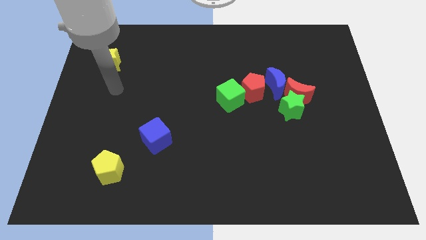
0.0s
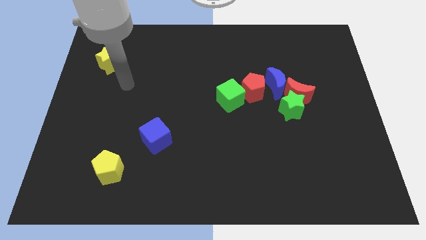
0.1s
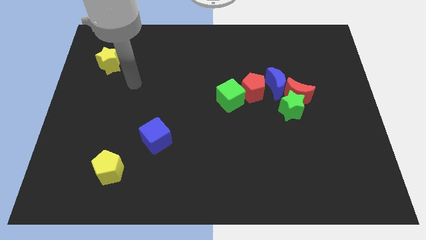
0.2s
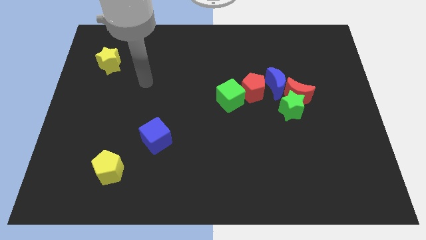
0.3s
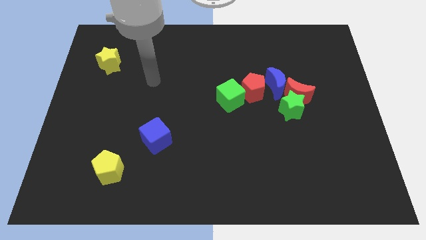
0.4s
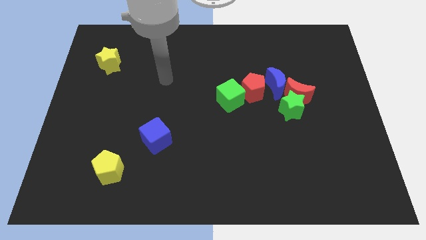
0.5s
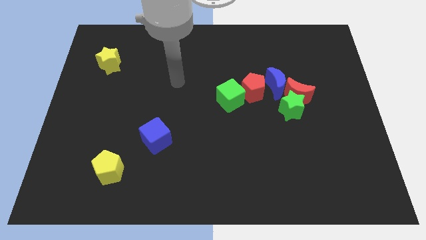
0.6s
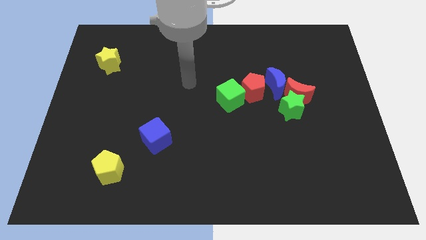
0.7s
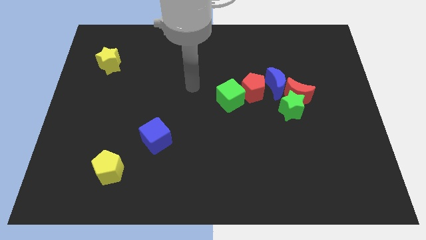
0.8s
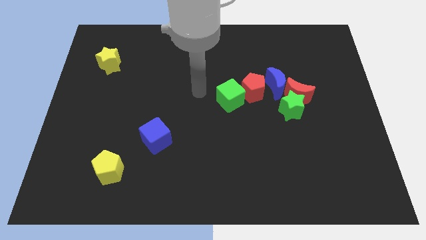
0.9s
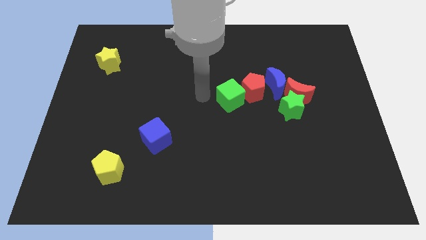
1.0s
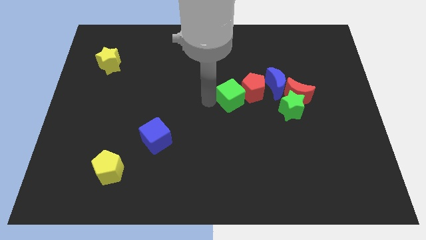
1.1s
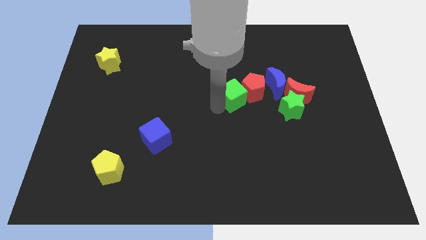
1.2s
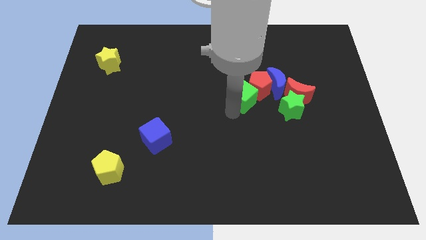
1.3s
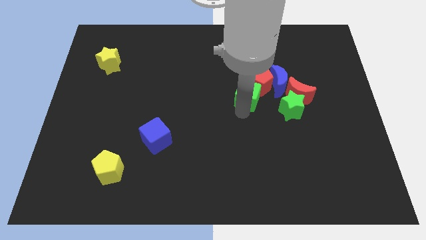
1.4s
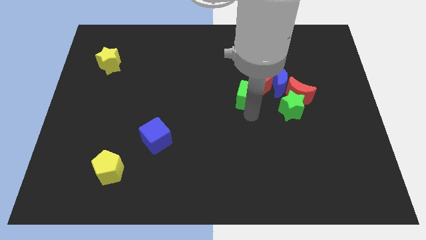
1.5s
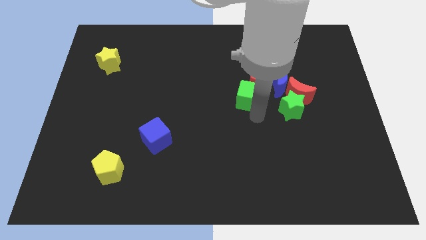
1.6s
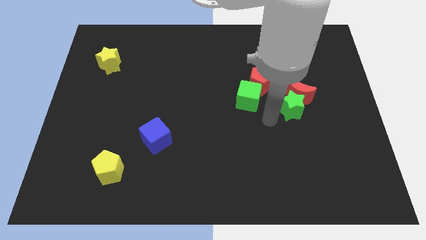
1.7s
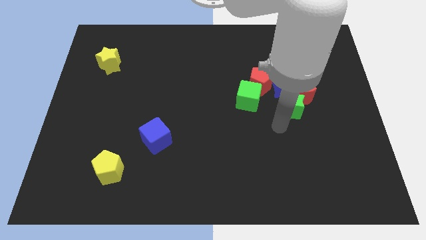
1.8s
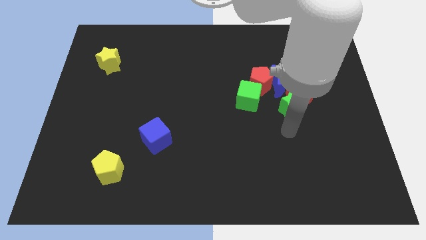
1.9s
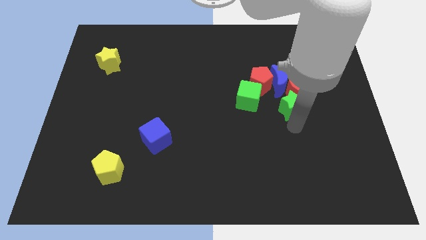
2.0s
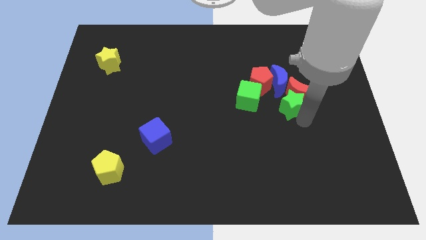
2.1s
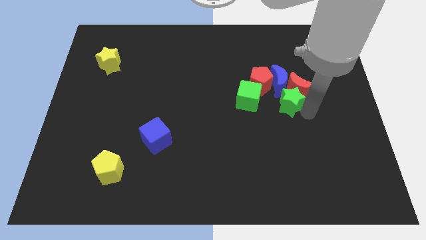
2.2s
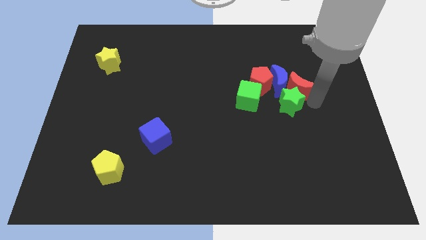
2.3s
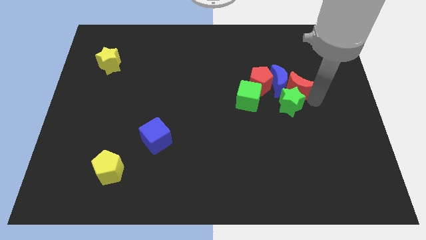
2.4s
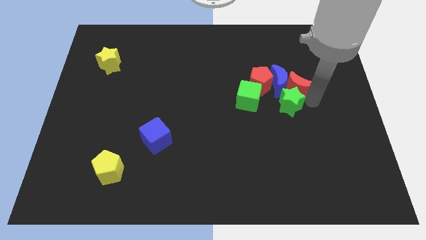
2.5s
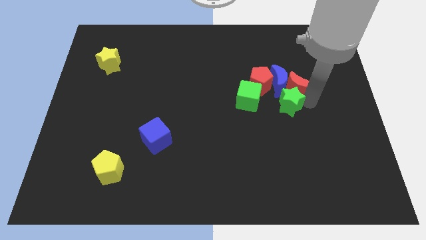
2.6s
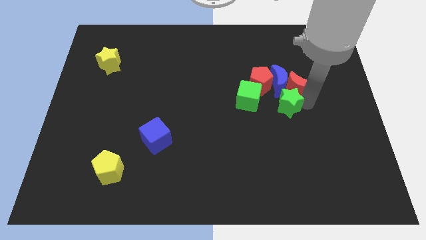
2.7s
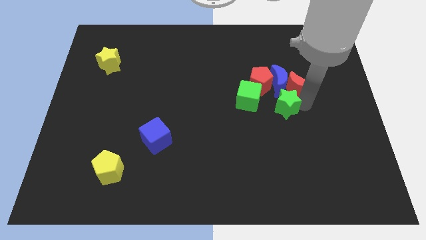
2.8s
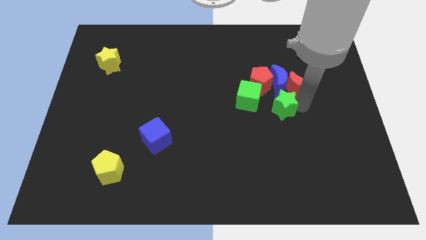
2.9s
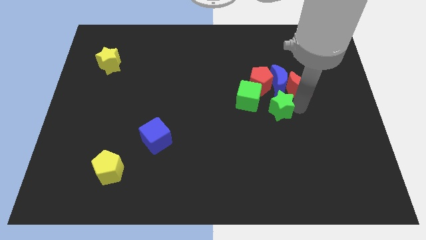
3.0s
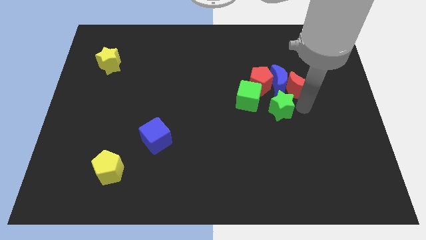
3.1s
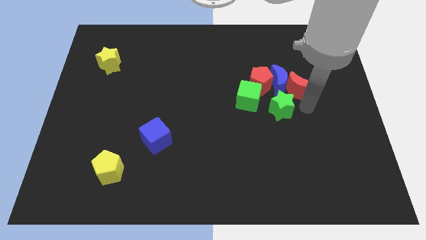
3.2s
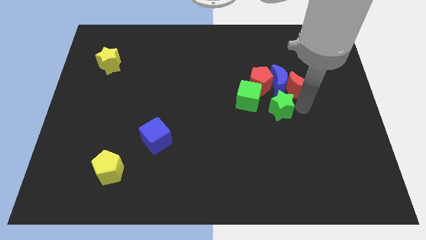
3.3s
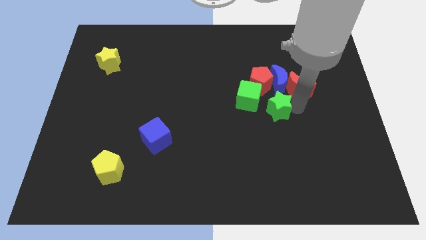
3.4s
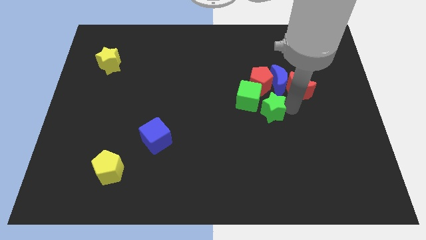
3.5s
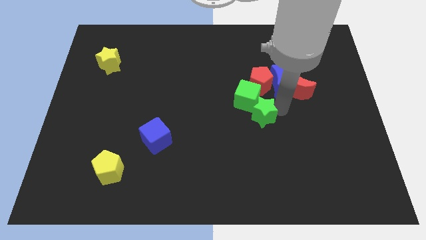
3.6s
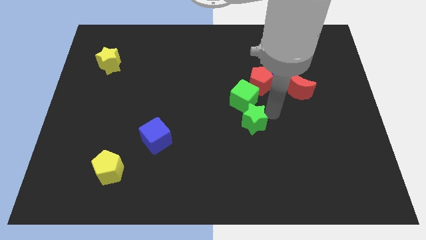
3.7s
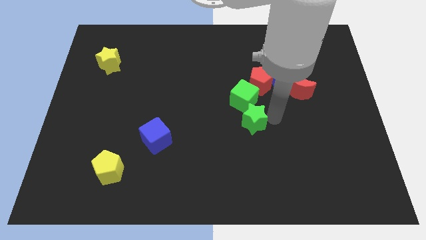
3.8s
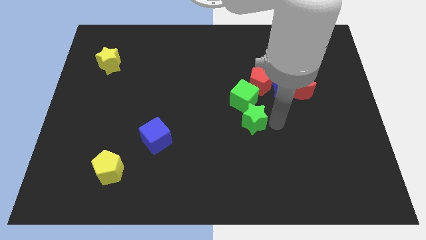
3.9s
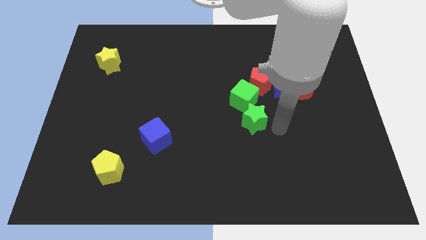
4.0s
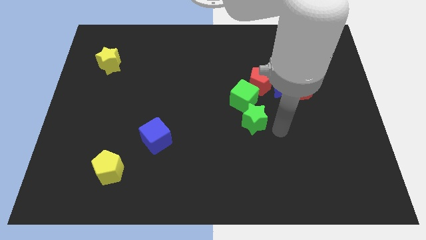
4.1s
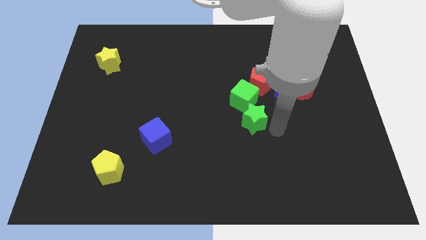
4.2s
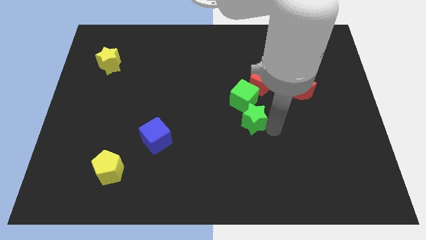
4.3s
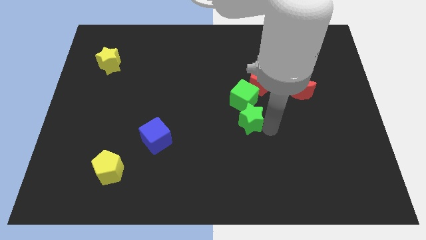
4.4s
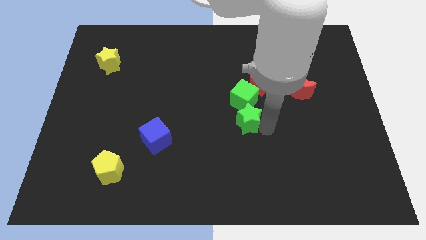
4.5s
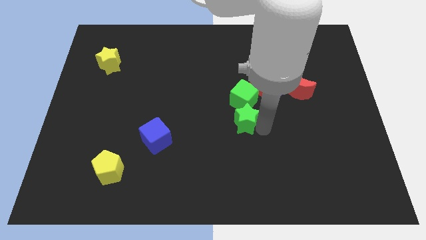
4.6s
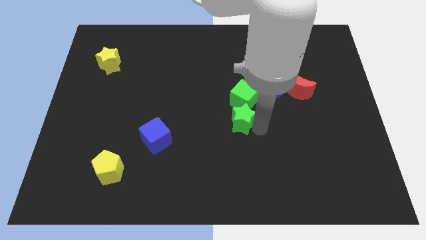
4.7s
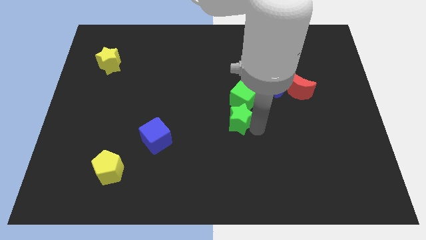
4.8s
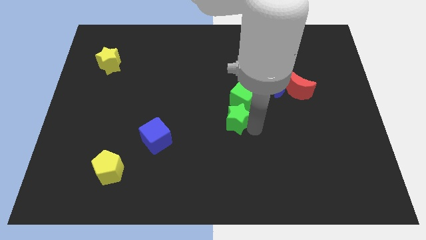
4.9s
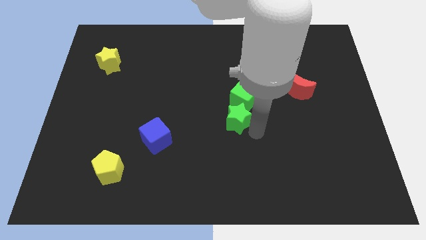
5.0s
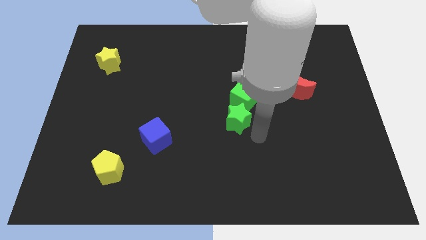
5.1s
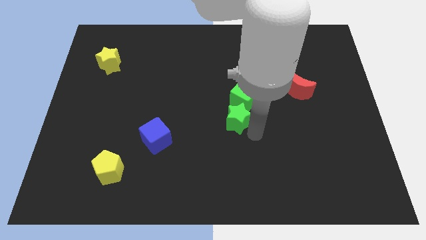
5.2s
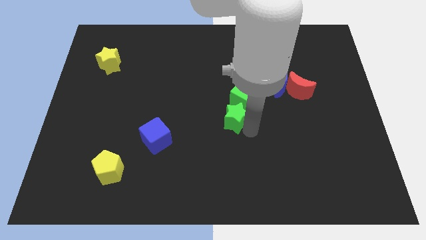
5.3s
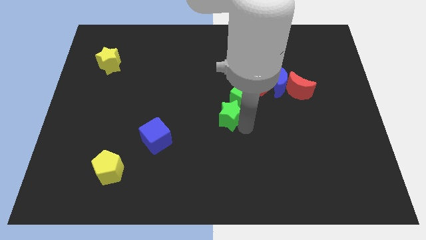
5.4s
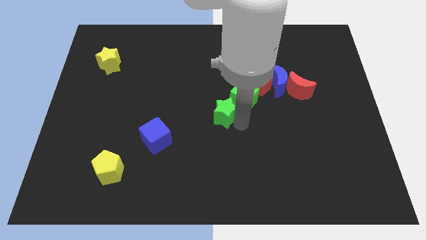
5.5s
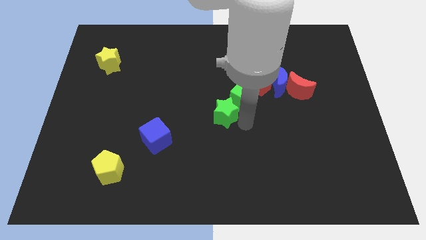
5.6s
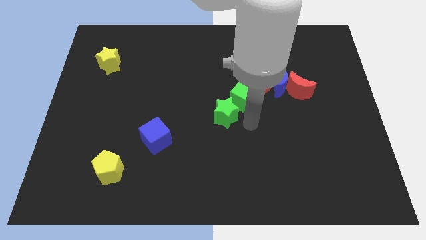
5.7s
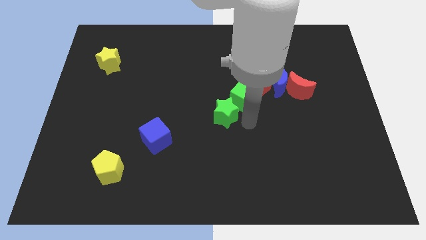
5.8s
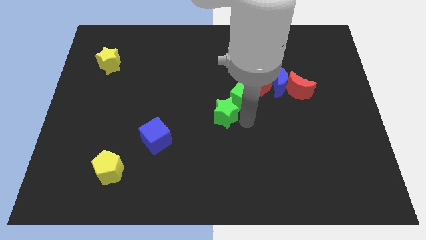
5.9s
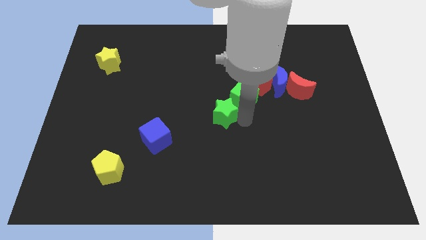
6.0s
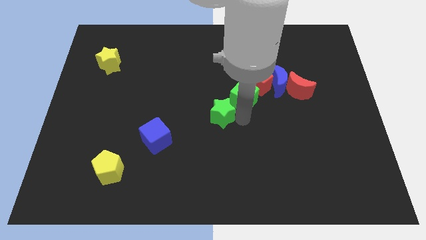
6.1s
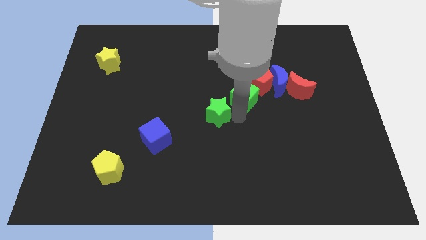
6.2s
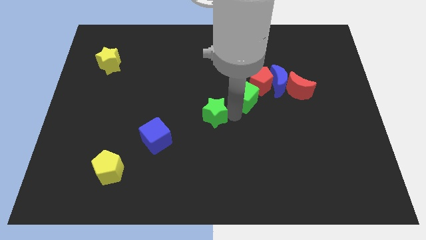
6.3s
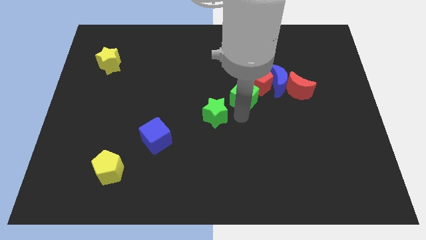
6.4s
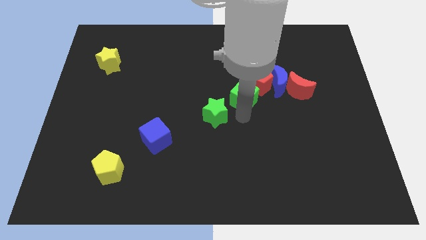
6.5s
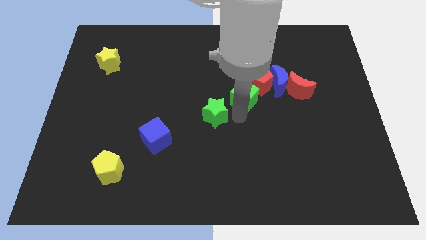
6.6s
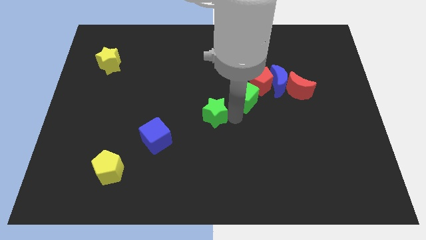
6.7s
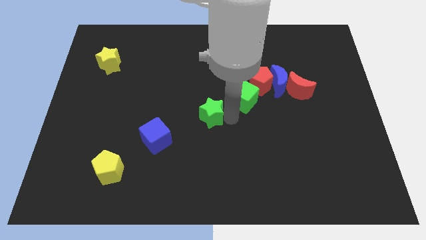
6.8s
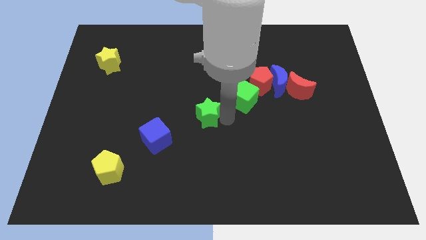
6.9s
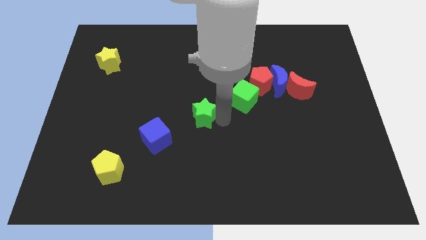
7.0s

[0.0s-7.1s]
push the green star left

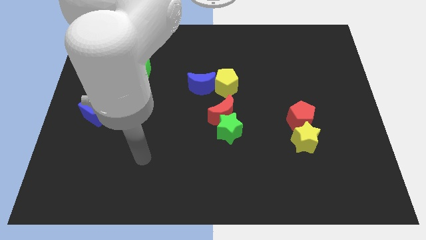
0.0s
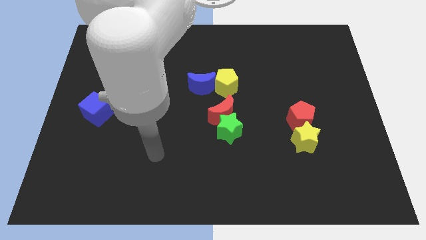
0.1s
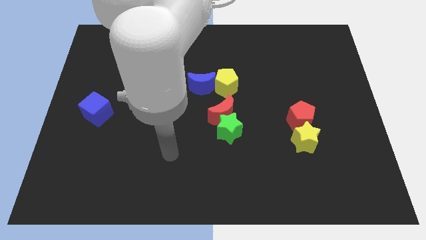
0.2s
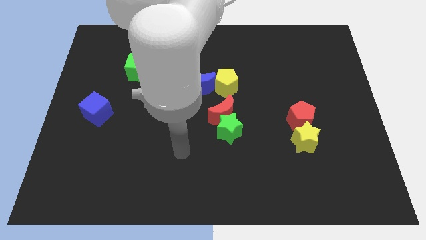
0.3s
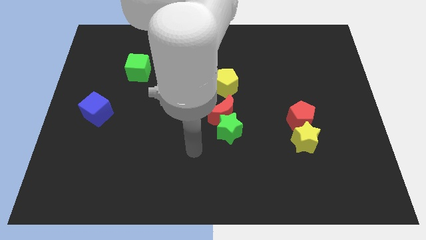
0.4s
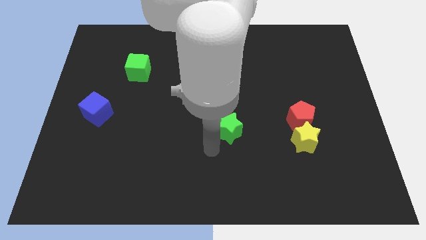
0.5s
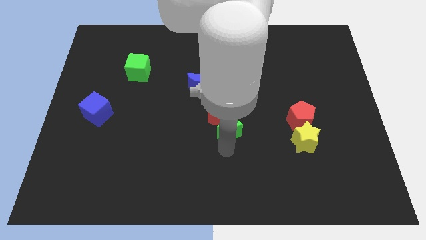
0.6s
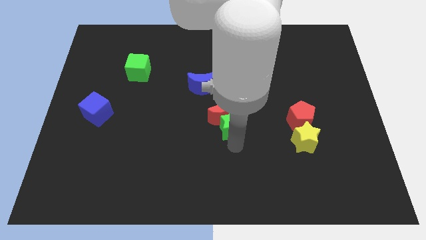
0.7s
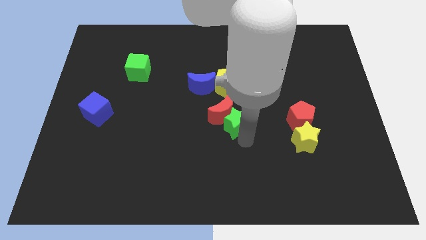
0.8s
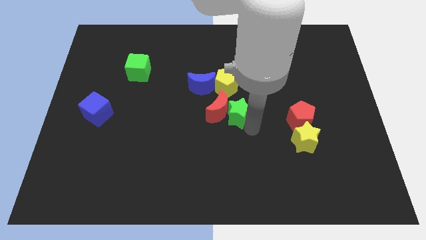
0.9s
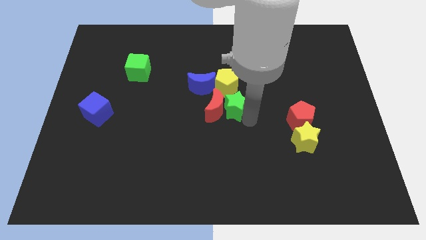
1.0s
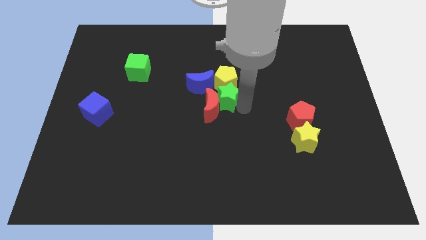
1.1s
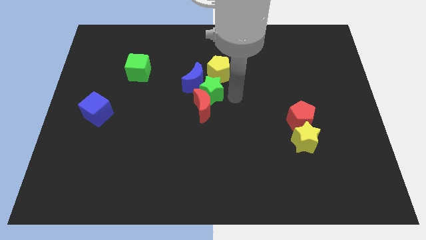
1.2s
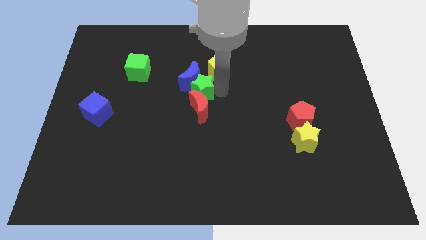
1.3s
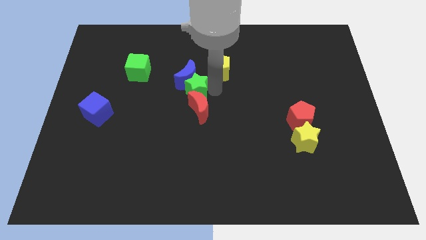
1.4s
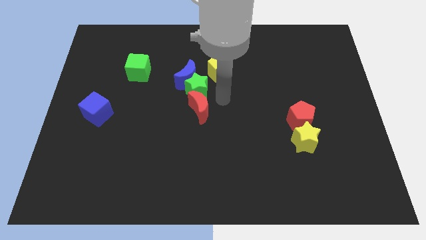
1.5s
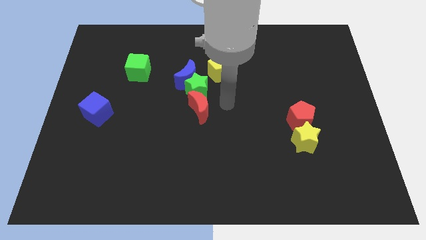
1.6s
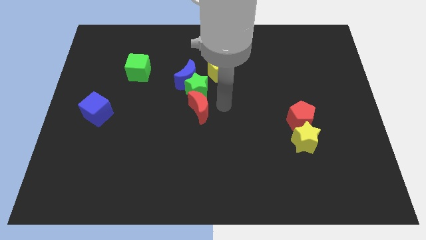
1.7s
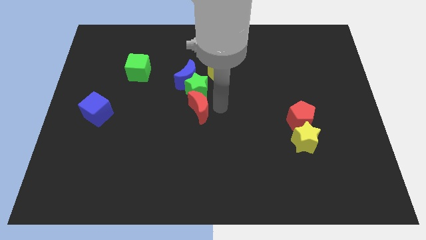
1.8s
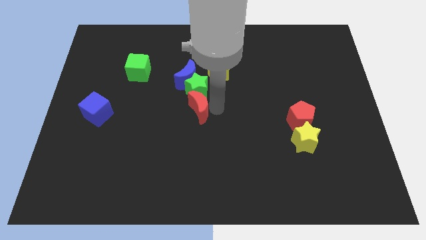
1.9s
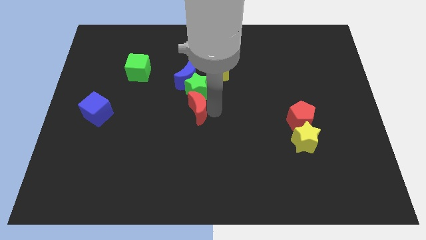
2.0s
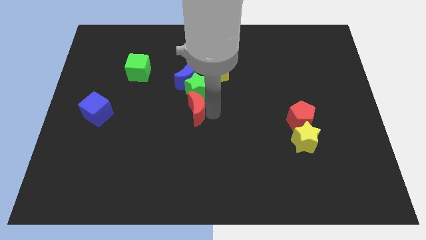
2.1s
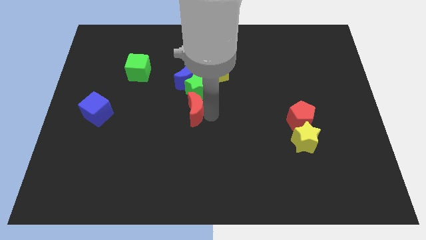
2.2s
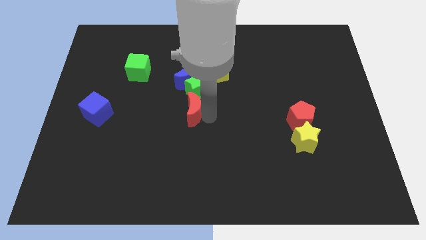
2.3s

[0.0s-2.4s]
push the red moon to the left somewhat
